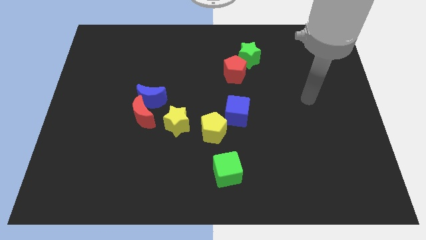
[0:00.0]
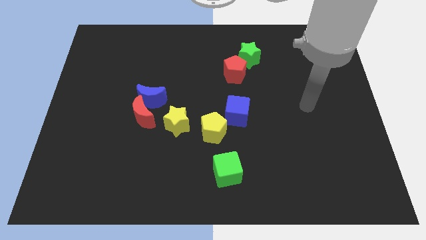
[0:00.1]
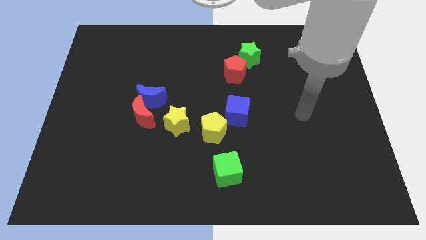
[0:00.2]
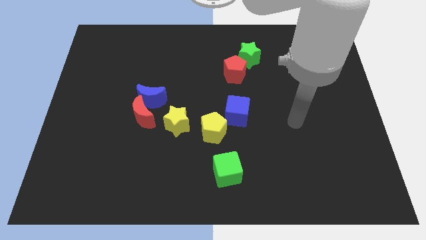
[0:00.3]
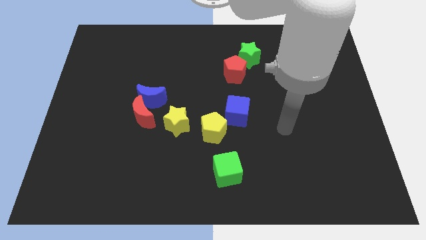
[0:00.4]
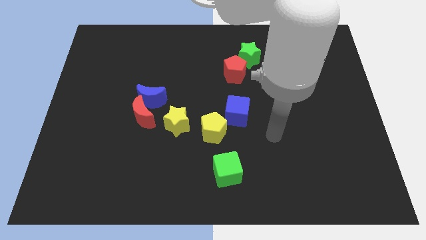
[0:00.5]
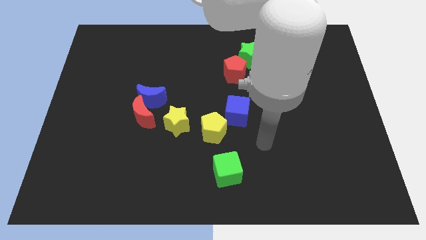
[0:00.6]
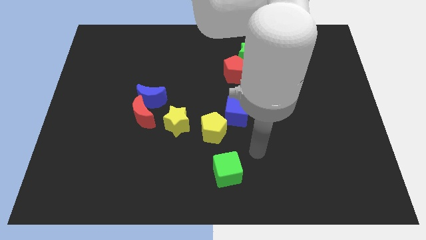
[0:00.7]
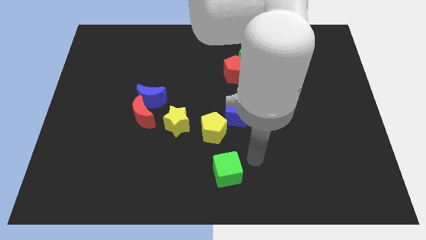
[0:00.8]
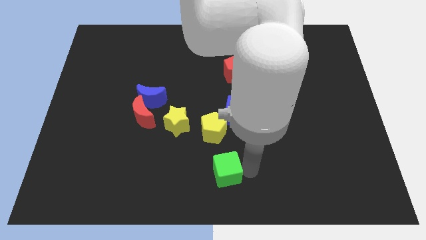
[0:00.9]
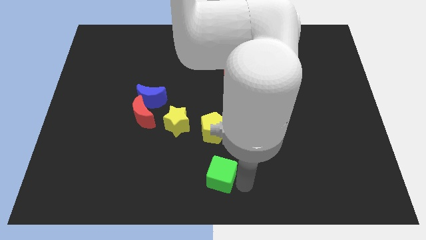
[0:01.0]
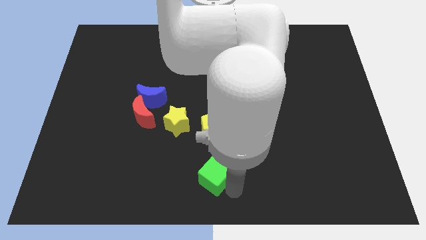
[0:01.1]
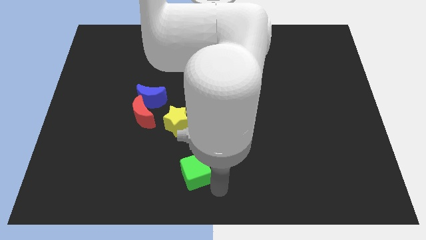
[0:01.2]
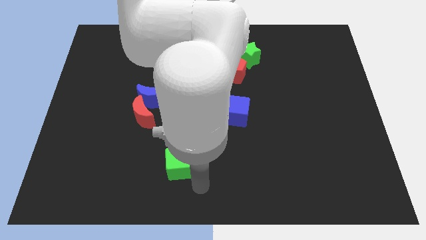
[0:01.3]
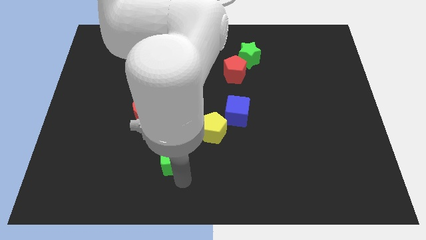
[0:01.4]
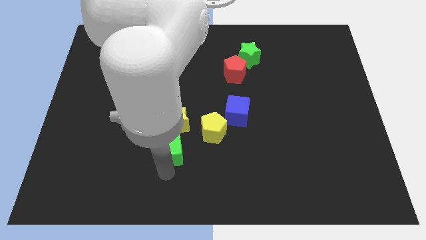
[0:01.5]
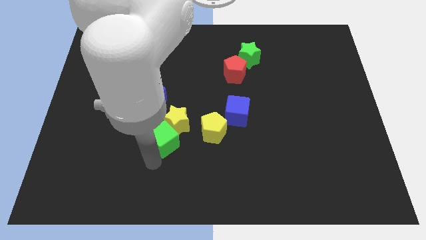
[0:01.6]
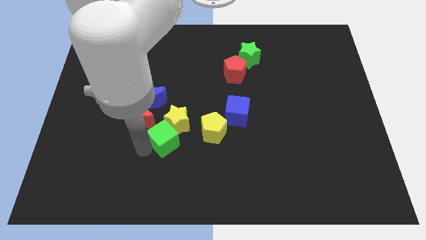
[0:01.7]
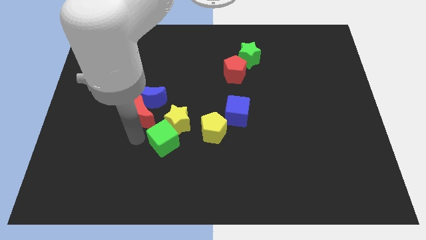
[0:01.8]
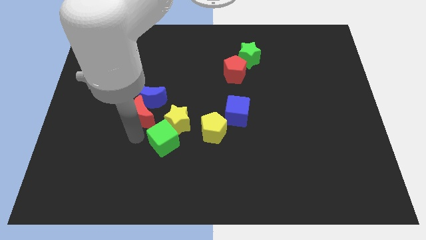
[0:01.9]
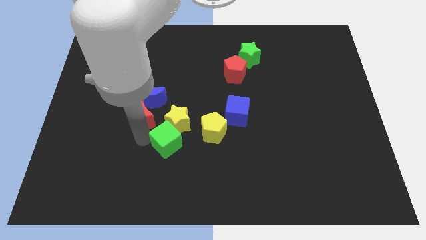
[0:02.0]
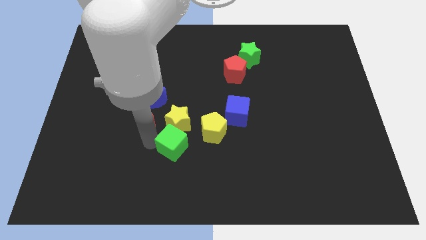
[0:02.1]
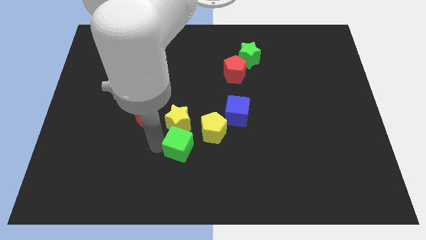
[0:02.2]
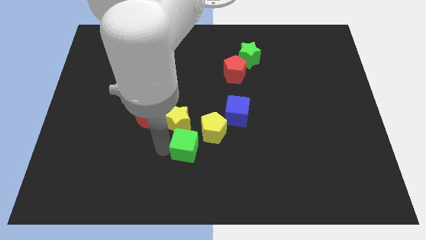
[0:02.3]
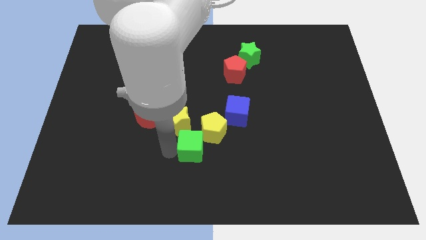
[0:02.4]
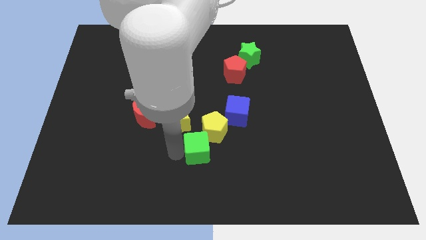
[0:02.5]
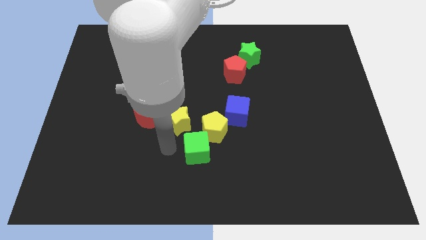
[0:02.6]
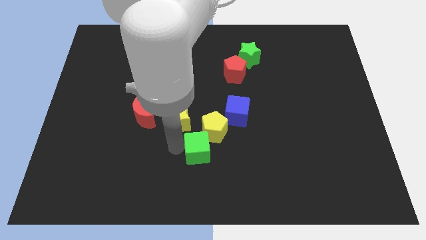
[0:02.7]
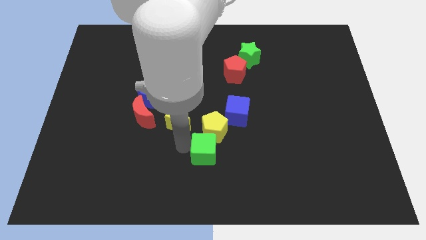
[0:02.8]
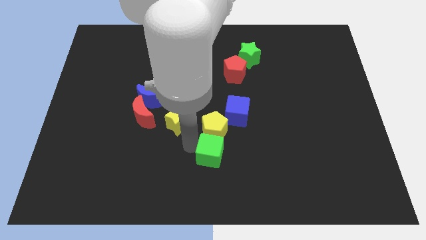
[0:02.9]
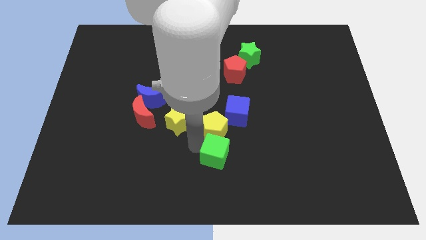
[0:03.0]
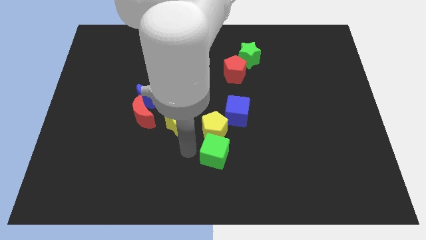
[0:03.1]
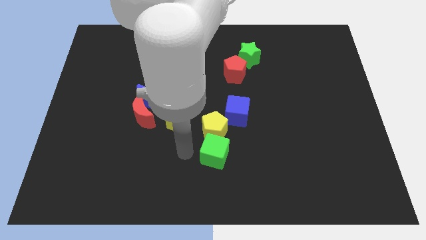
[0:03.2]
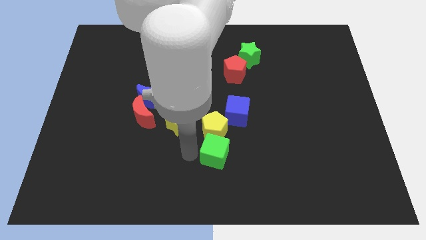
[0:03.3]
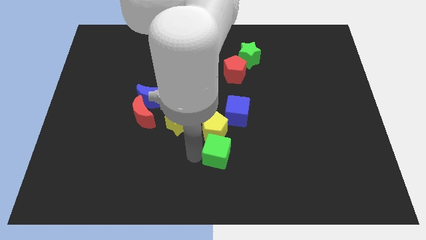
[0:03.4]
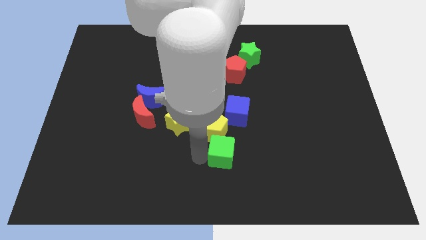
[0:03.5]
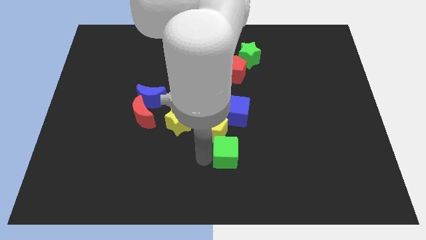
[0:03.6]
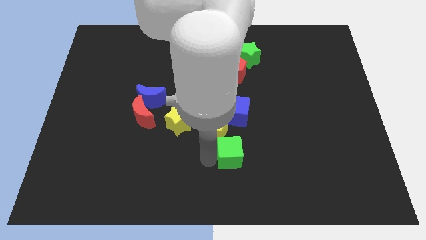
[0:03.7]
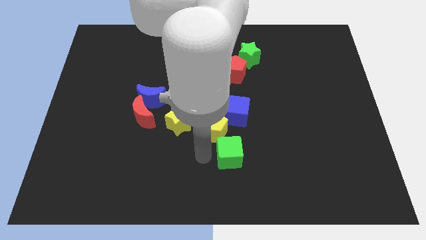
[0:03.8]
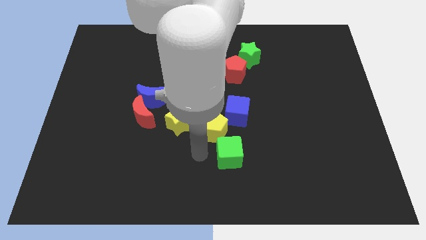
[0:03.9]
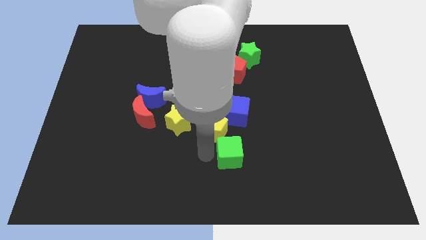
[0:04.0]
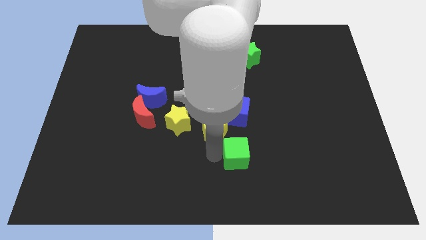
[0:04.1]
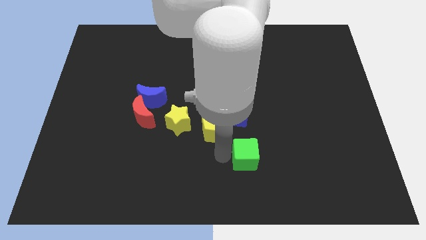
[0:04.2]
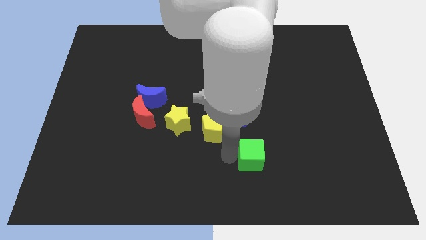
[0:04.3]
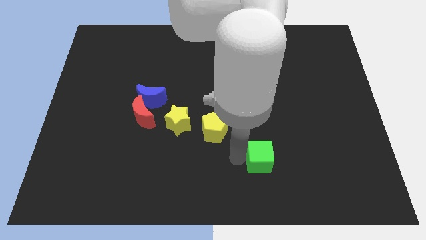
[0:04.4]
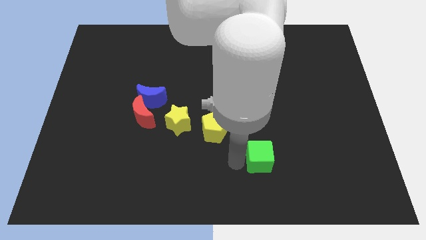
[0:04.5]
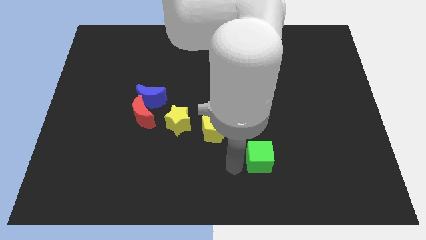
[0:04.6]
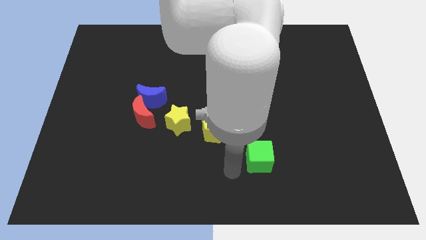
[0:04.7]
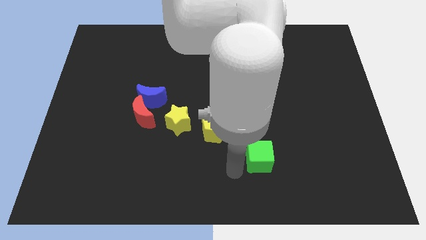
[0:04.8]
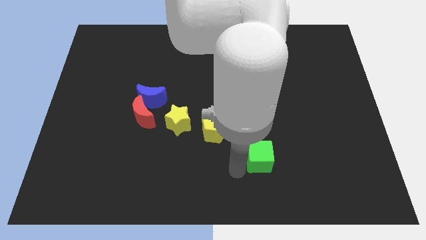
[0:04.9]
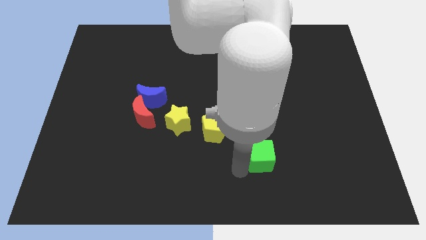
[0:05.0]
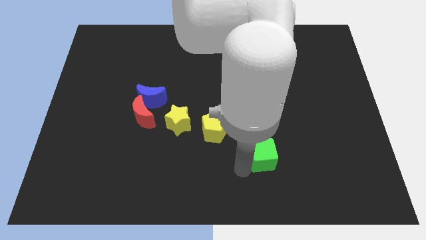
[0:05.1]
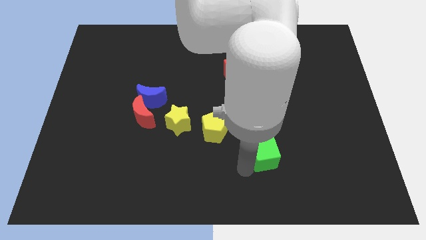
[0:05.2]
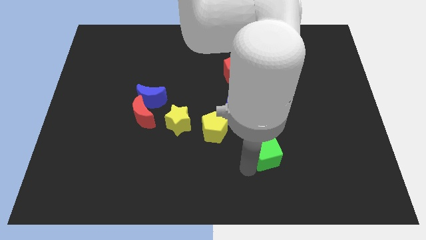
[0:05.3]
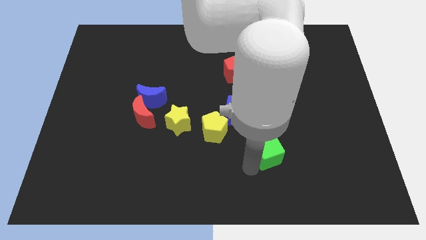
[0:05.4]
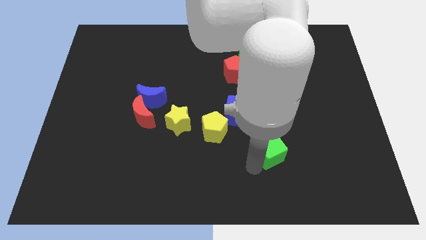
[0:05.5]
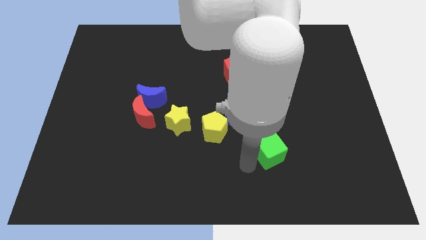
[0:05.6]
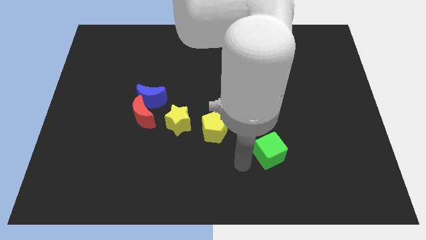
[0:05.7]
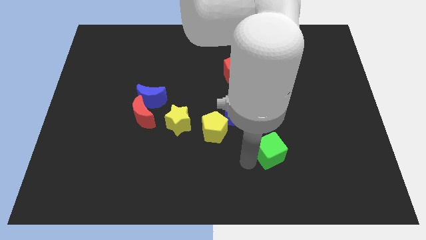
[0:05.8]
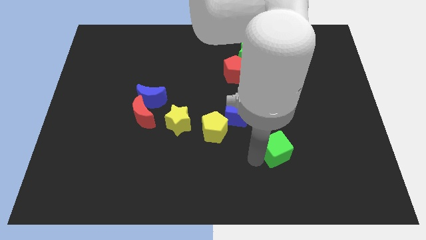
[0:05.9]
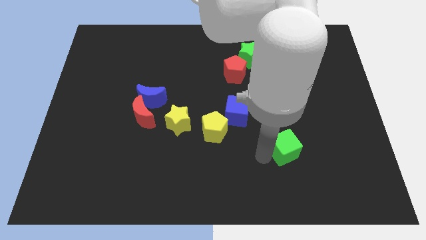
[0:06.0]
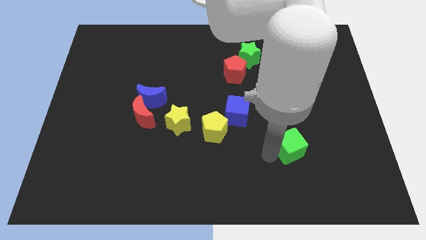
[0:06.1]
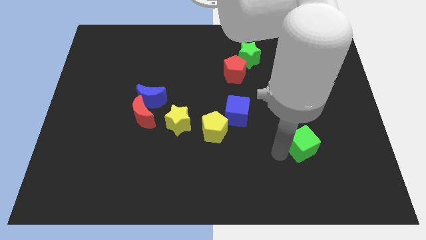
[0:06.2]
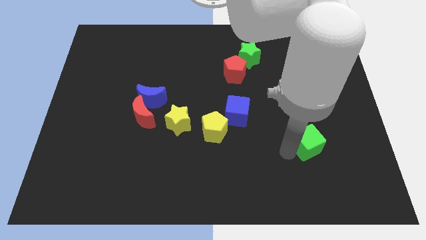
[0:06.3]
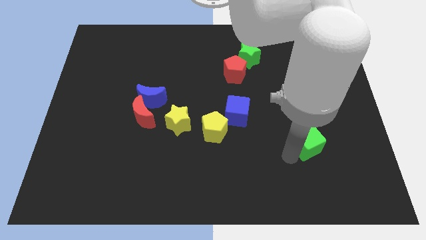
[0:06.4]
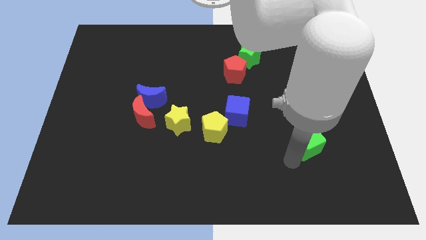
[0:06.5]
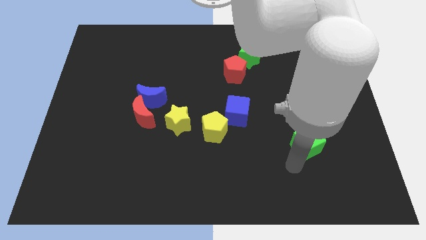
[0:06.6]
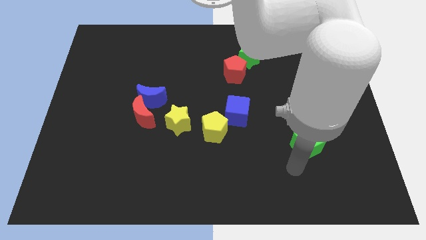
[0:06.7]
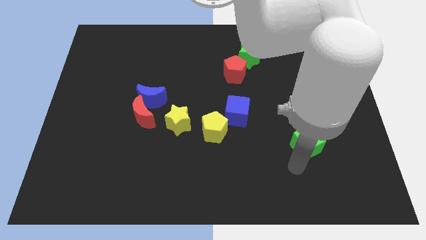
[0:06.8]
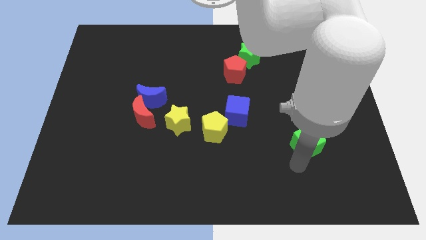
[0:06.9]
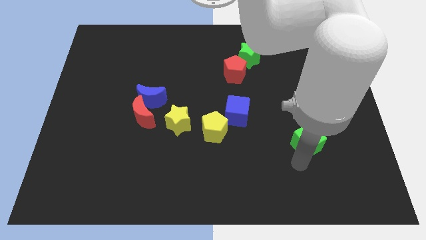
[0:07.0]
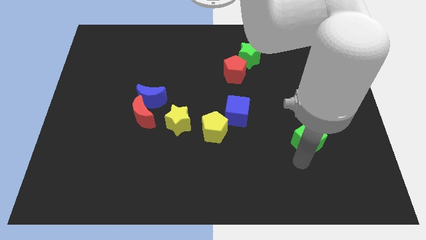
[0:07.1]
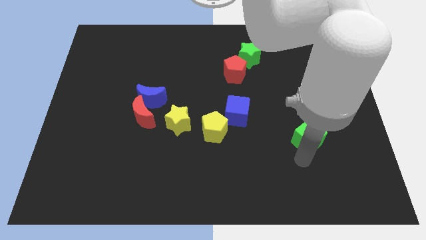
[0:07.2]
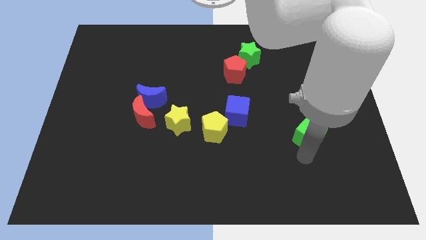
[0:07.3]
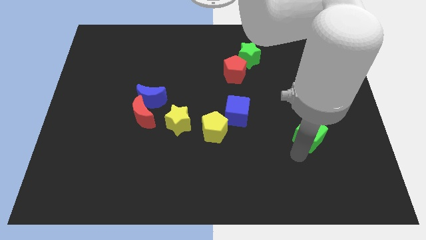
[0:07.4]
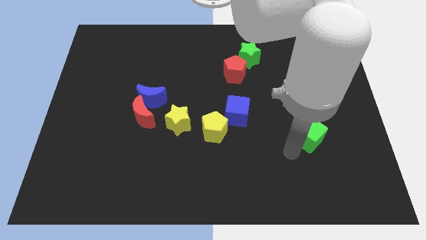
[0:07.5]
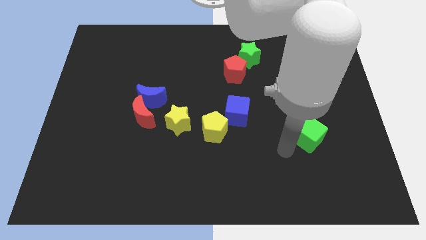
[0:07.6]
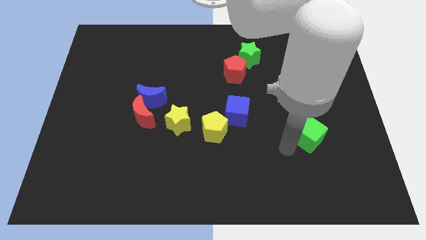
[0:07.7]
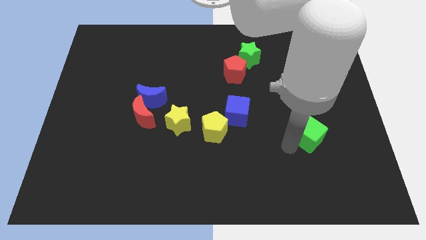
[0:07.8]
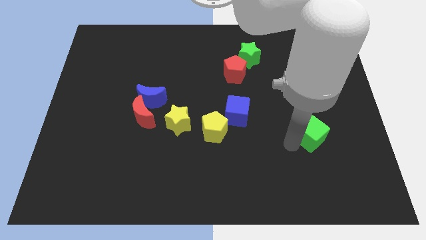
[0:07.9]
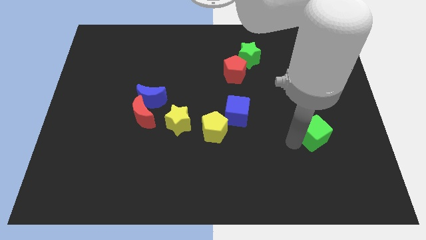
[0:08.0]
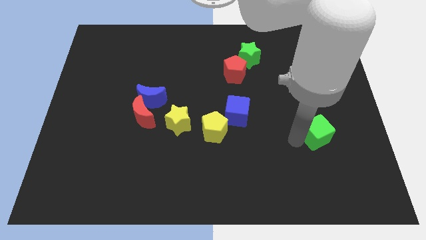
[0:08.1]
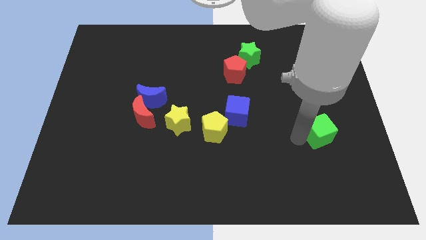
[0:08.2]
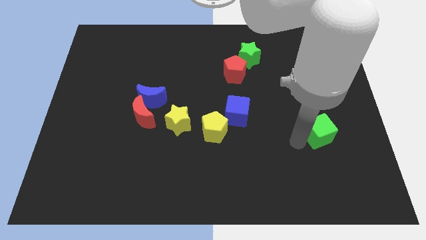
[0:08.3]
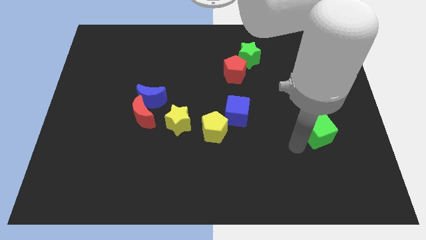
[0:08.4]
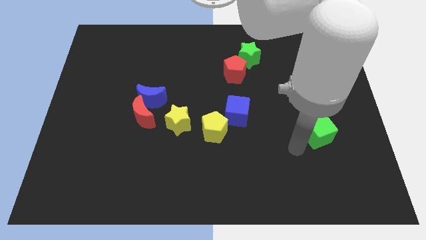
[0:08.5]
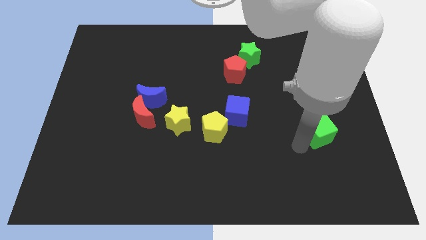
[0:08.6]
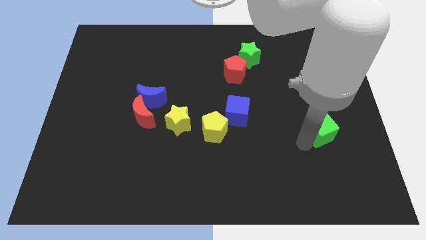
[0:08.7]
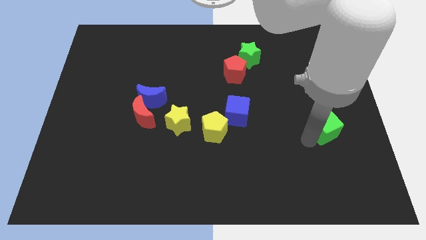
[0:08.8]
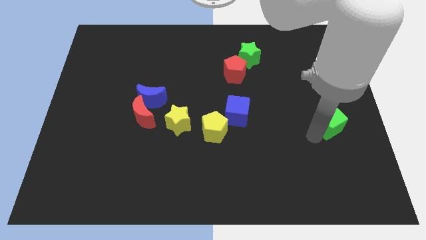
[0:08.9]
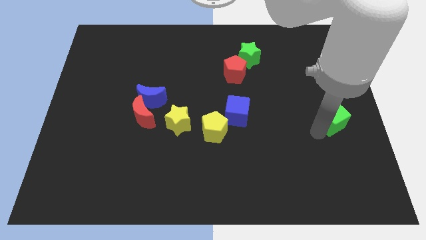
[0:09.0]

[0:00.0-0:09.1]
slide the green cube to the right side
